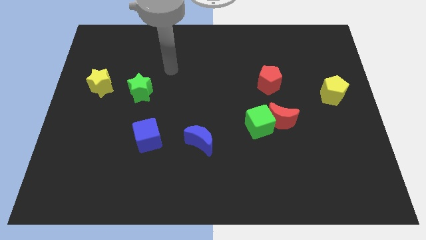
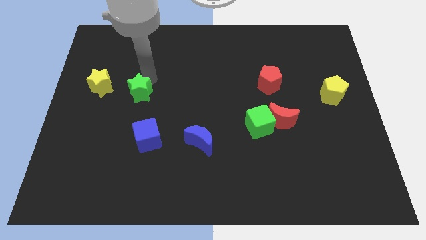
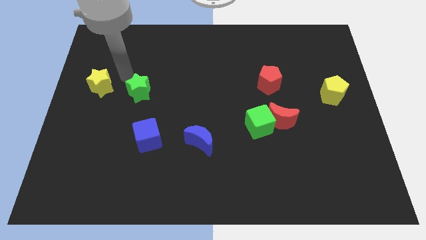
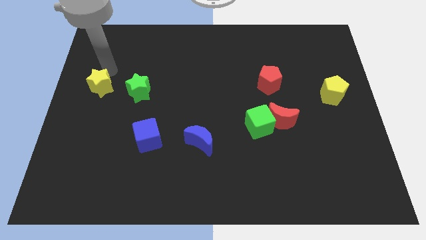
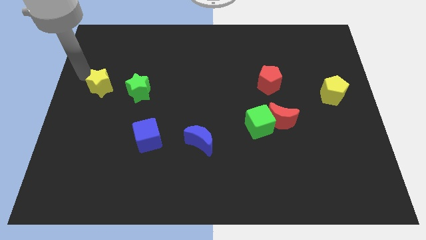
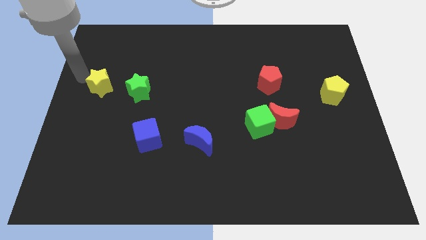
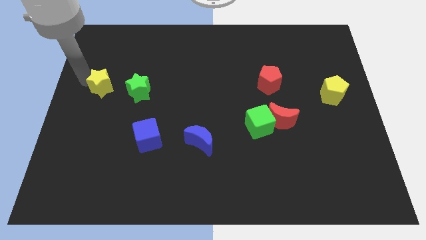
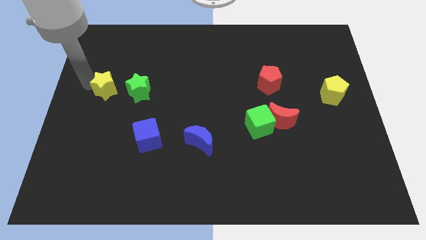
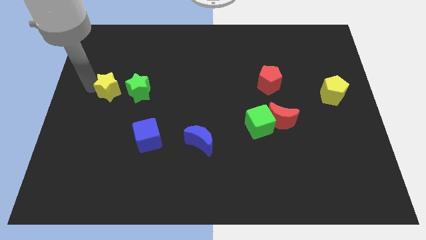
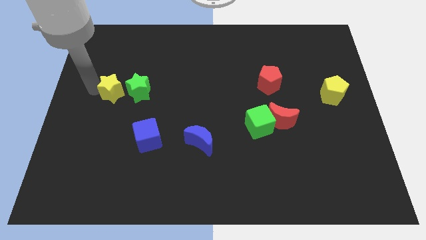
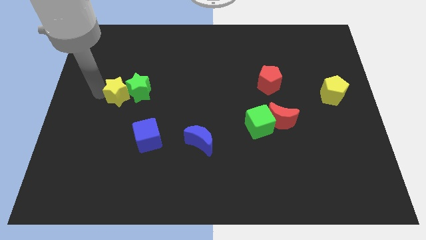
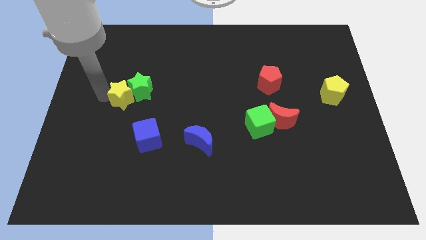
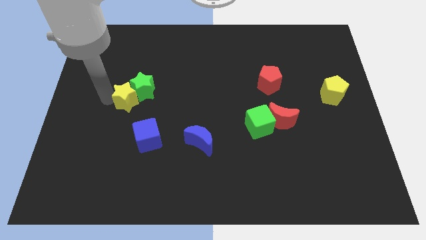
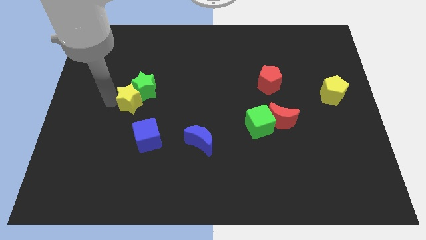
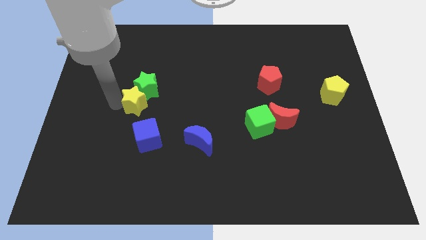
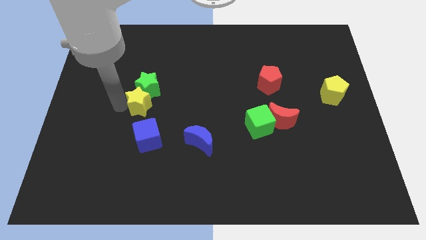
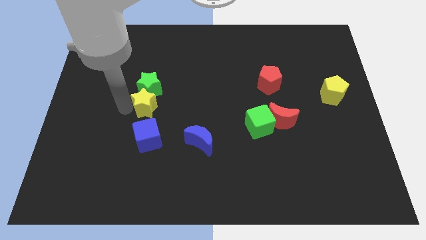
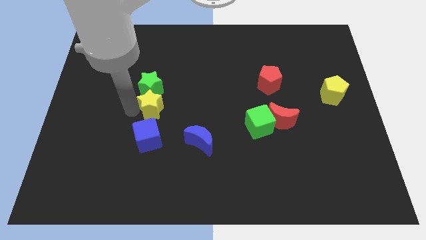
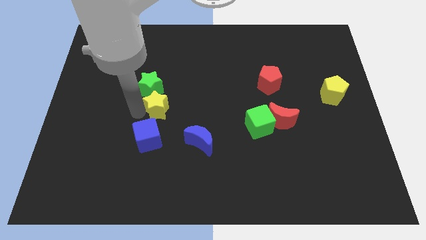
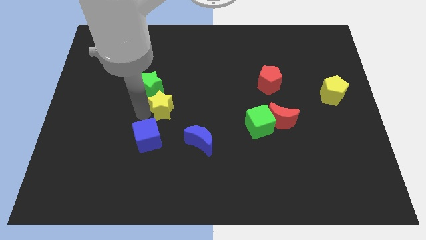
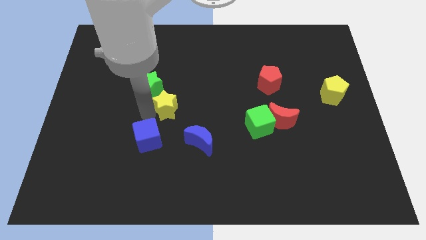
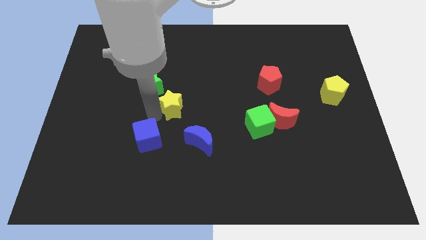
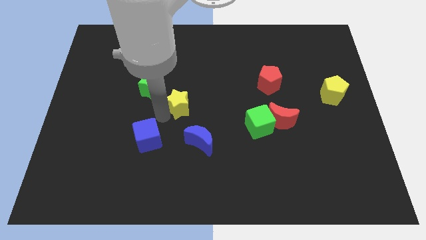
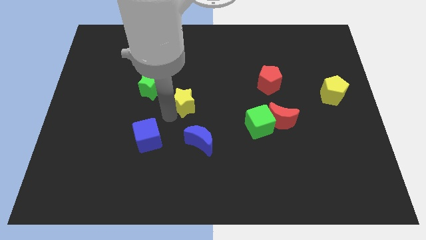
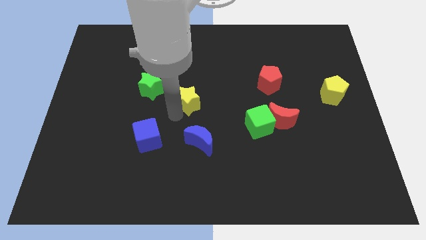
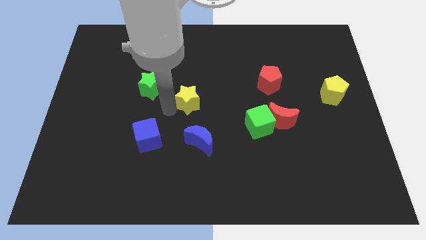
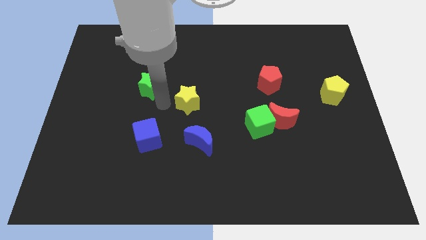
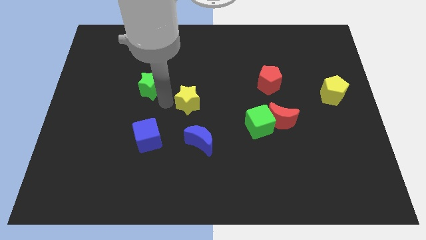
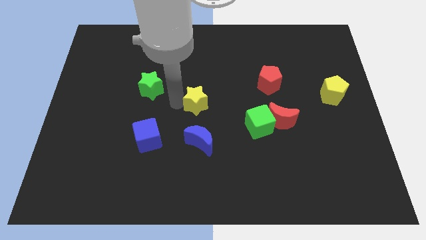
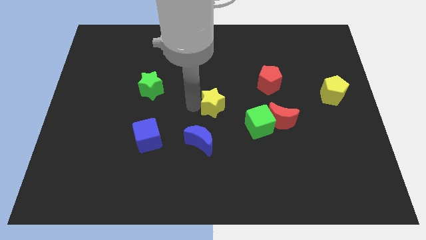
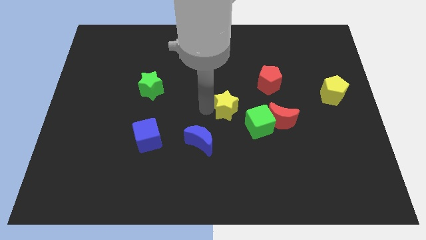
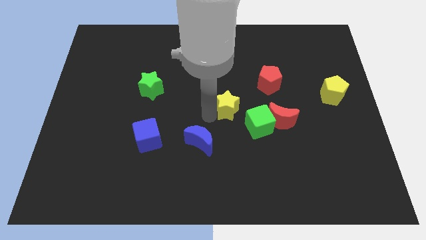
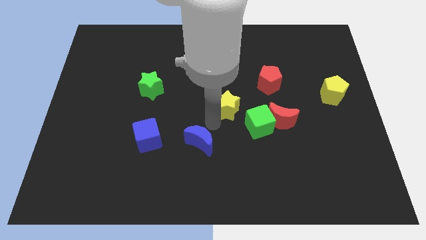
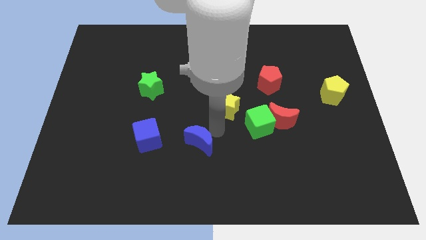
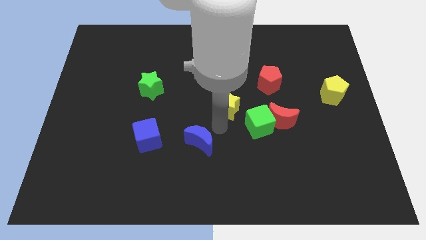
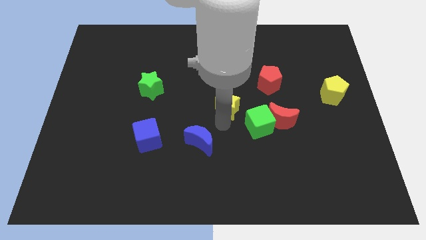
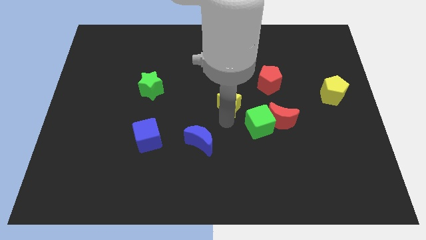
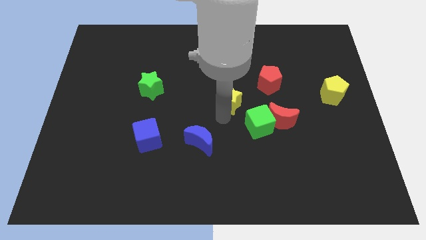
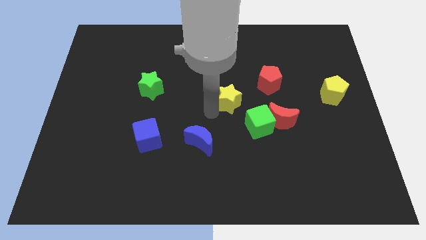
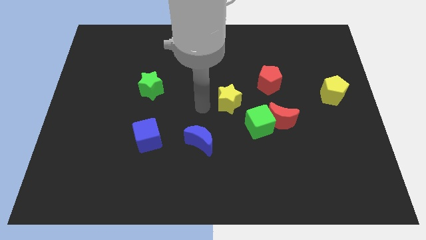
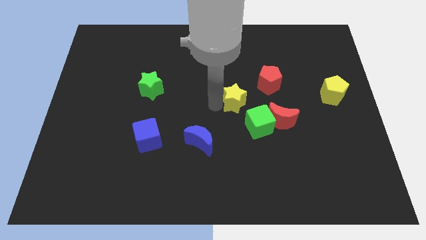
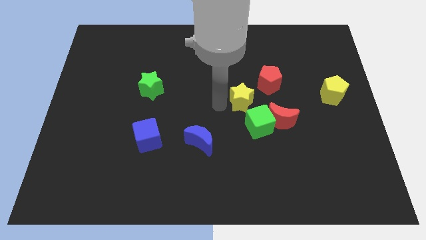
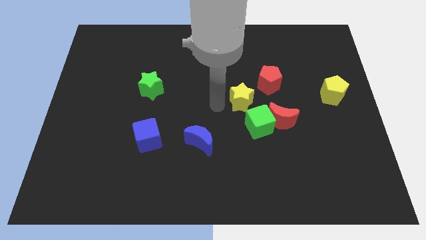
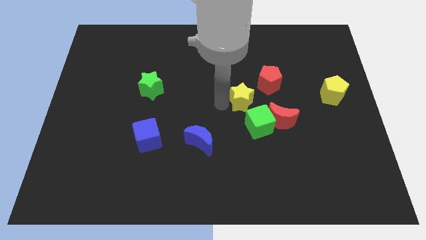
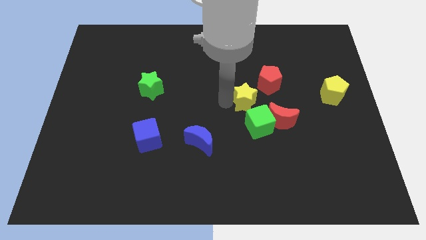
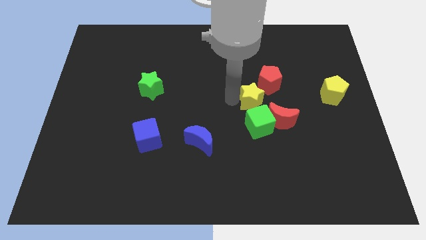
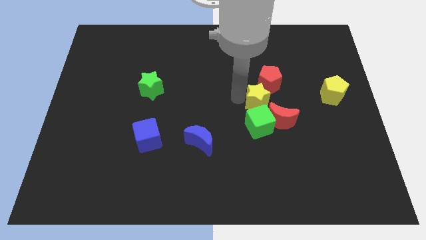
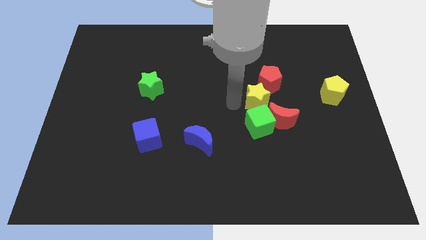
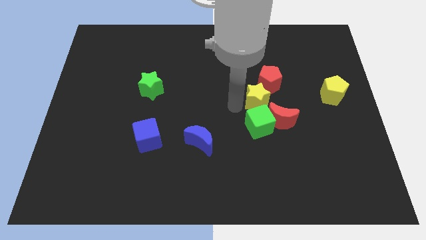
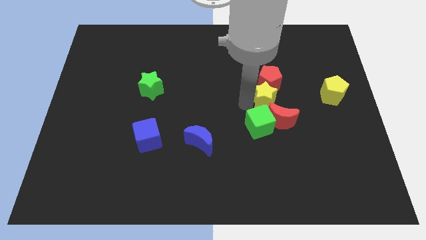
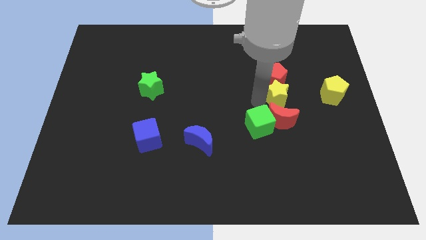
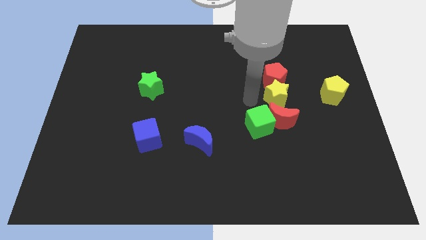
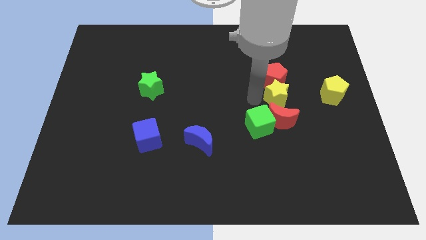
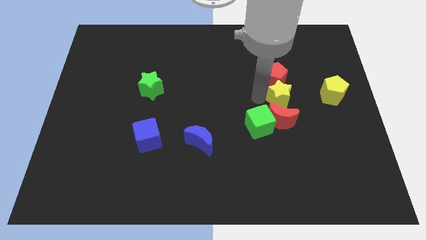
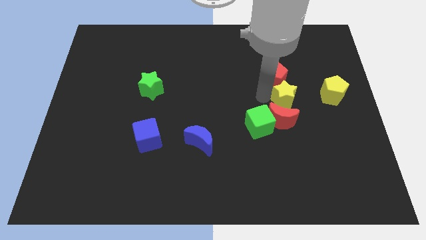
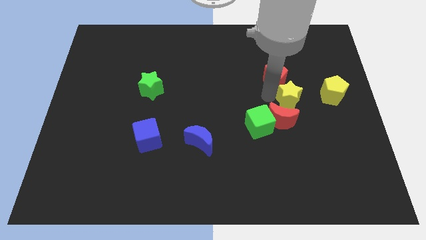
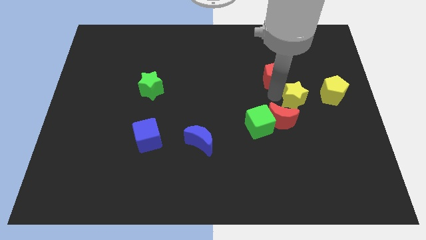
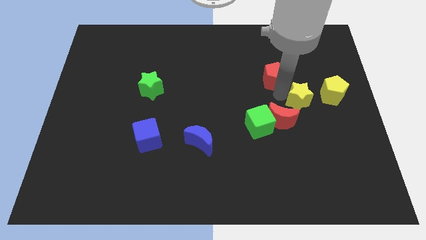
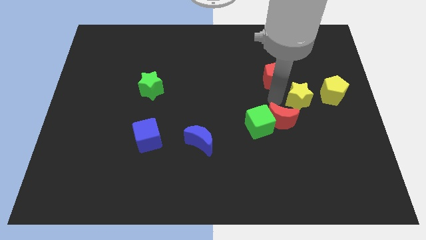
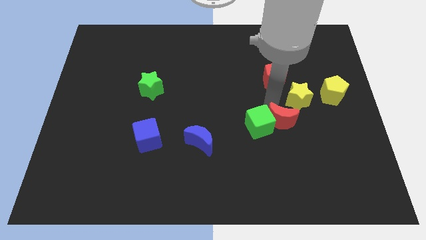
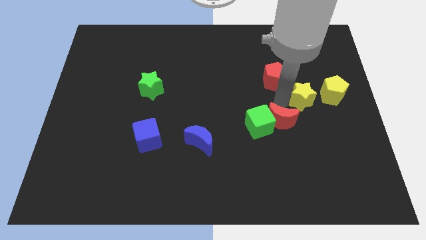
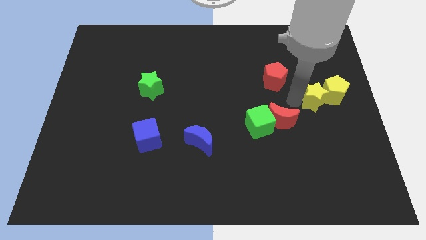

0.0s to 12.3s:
push the yellow star close to the yellow pentagon

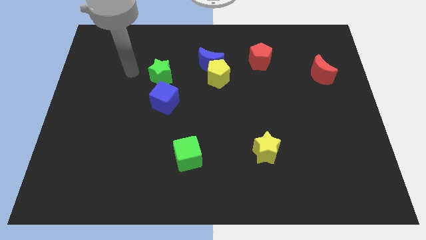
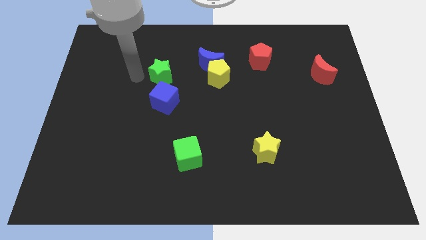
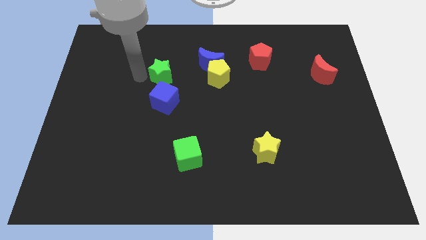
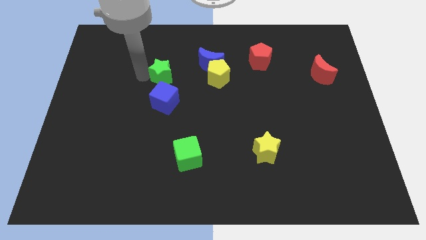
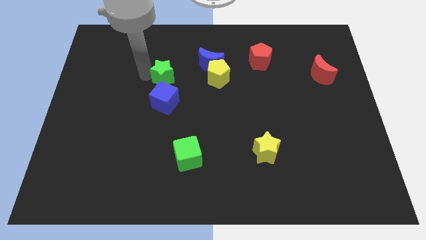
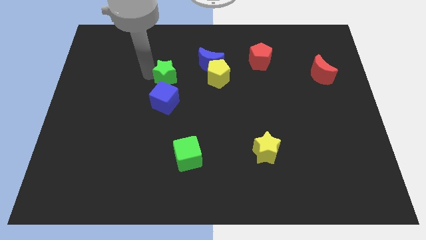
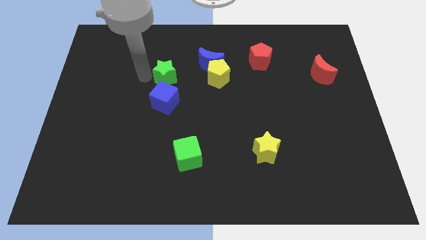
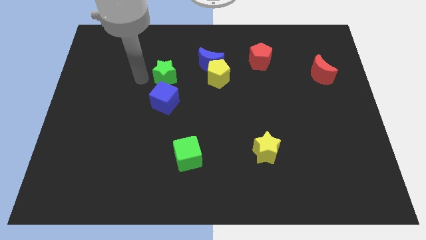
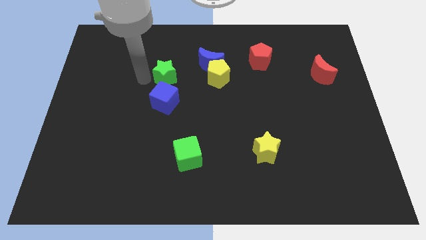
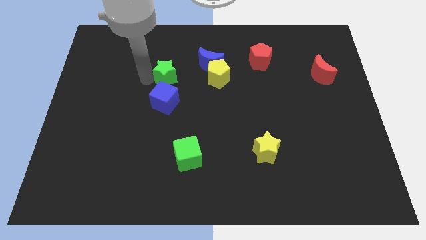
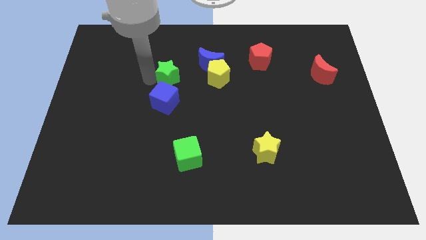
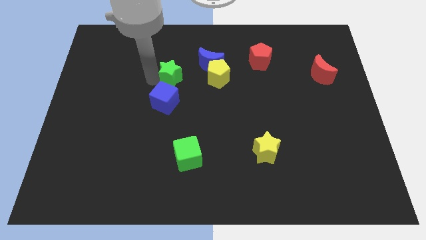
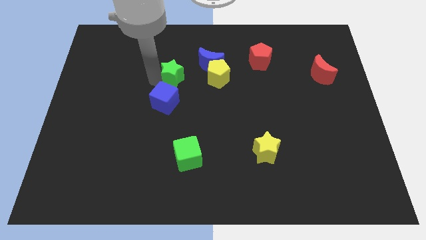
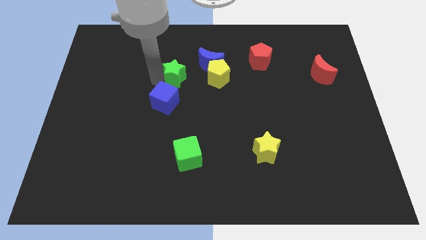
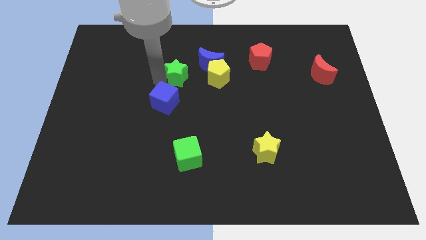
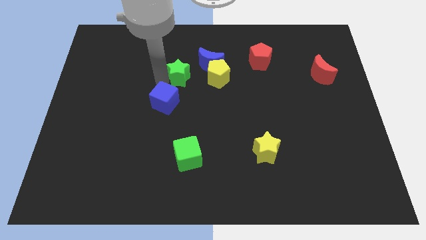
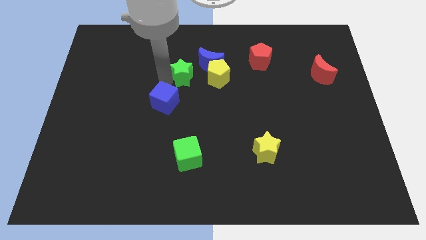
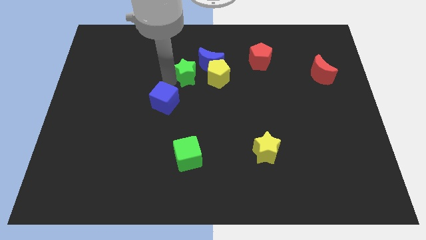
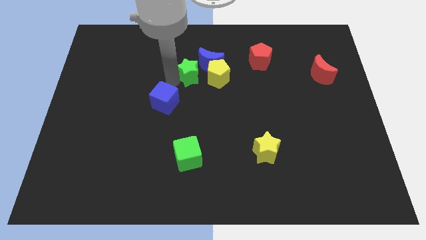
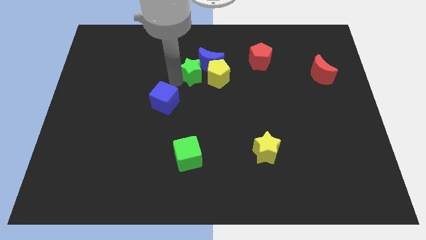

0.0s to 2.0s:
move the green star close to the blue moon
